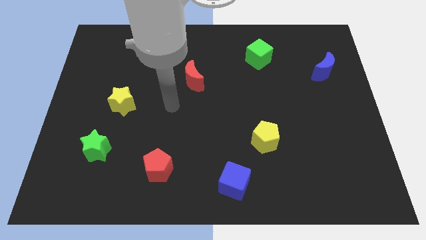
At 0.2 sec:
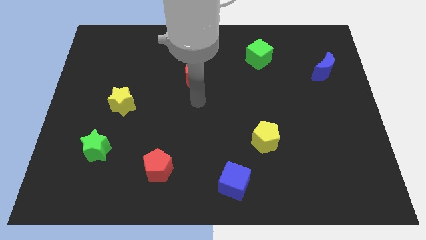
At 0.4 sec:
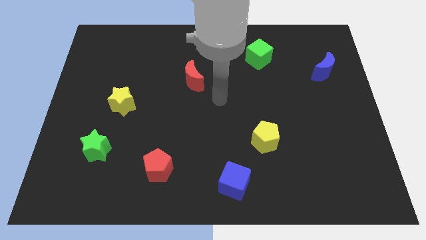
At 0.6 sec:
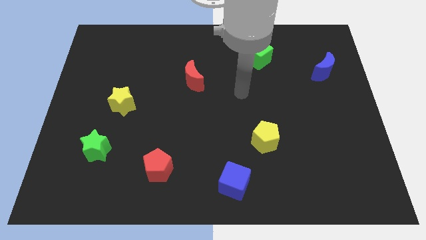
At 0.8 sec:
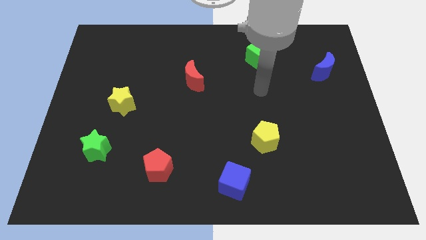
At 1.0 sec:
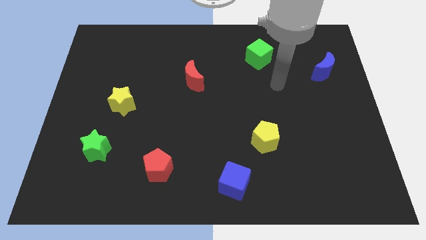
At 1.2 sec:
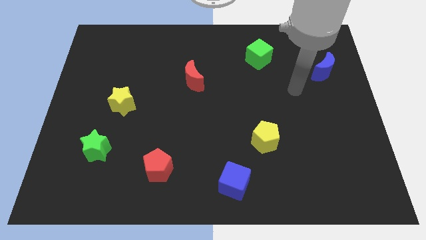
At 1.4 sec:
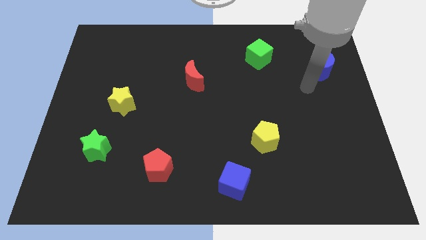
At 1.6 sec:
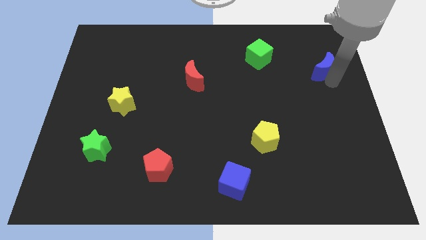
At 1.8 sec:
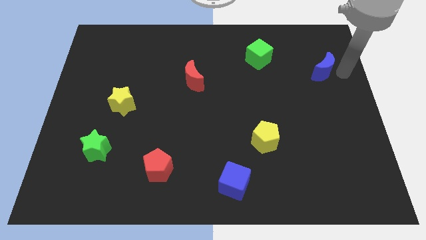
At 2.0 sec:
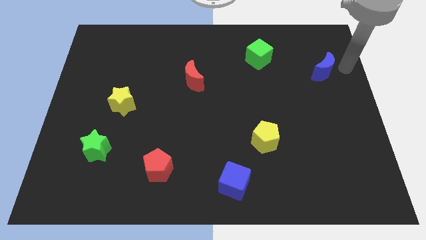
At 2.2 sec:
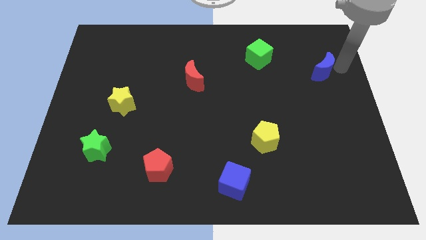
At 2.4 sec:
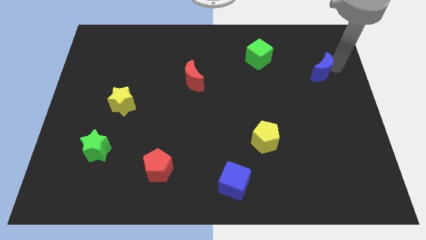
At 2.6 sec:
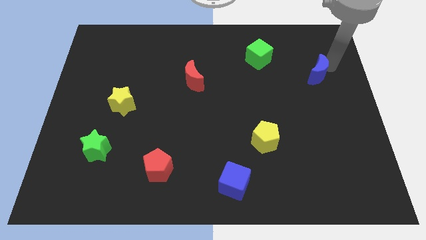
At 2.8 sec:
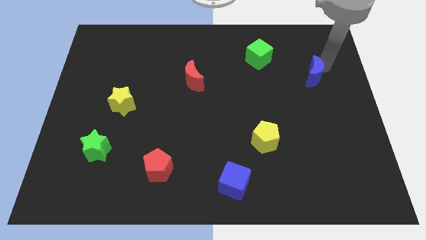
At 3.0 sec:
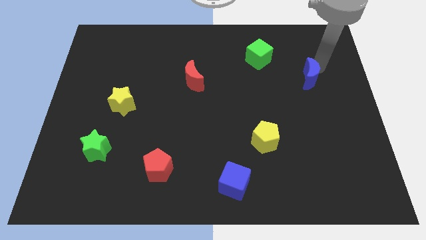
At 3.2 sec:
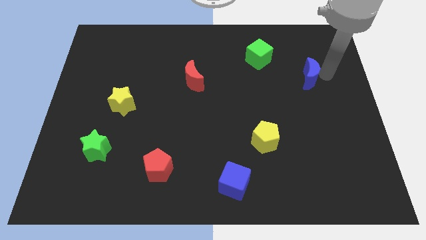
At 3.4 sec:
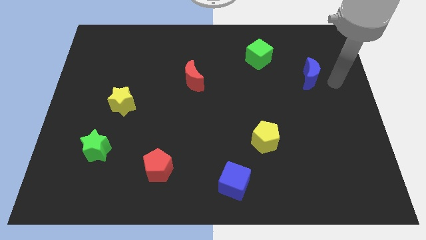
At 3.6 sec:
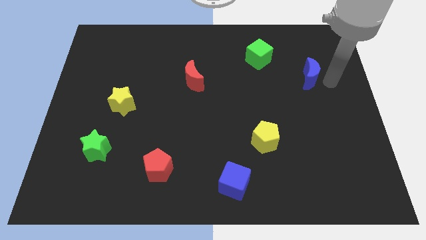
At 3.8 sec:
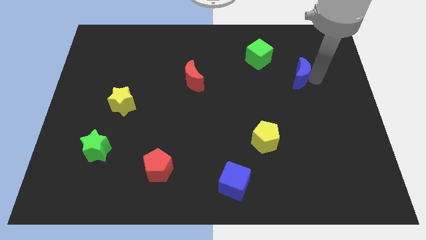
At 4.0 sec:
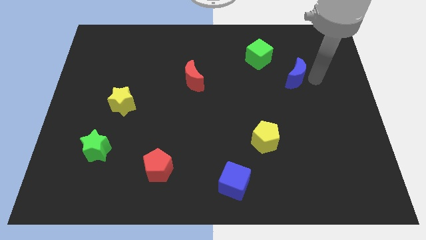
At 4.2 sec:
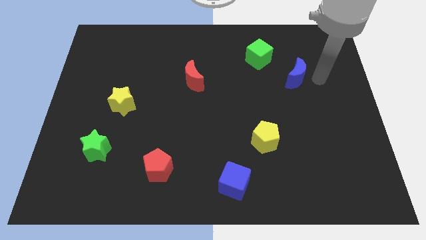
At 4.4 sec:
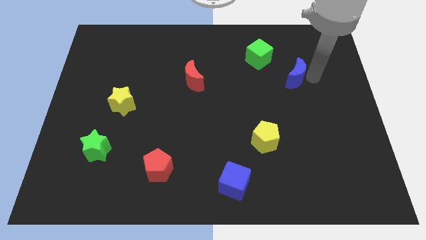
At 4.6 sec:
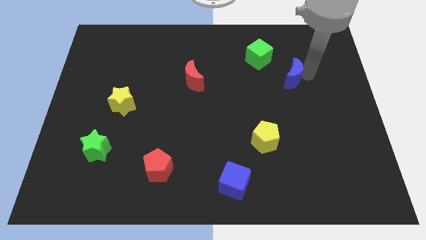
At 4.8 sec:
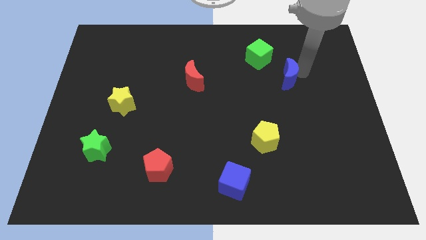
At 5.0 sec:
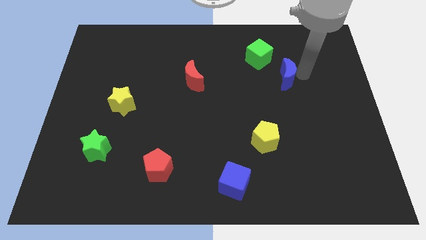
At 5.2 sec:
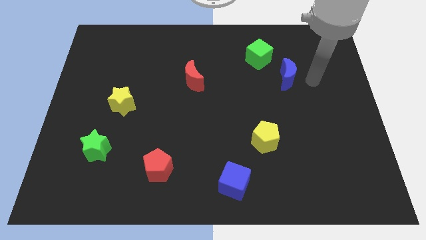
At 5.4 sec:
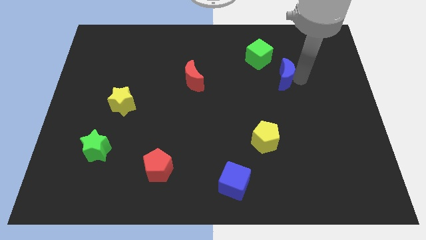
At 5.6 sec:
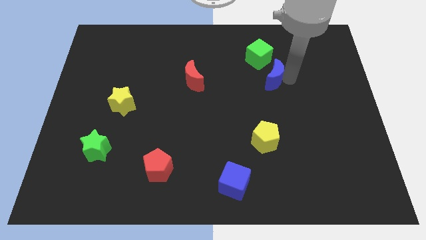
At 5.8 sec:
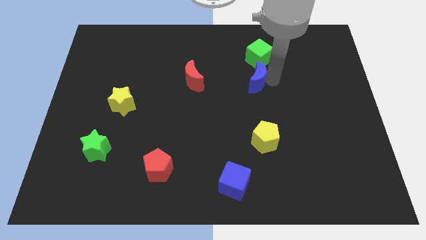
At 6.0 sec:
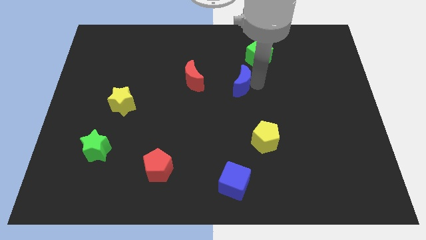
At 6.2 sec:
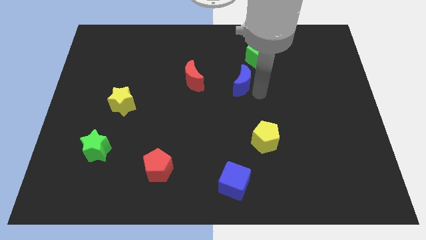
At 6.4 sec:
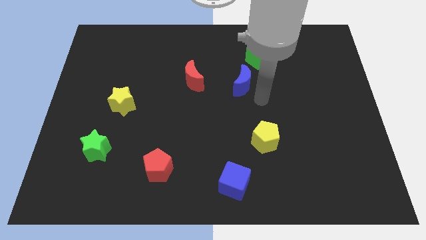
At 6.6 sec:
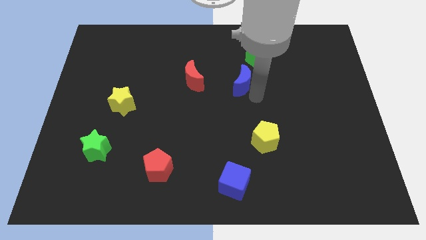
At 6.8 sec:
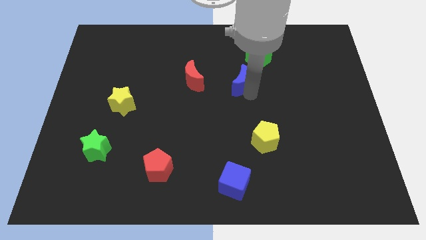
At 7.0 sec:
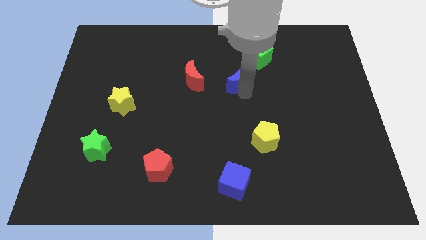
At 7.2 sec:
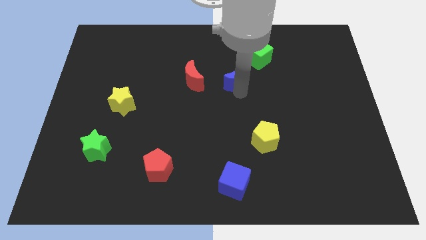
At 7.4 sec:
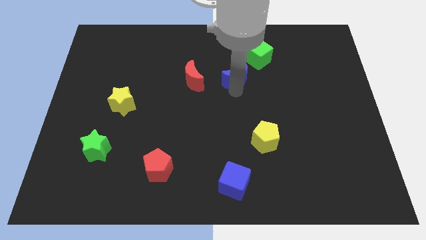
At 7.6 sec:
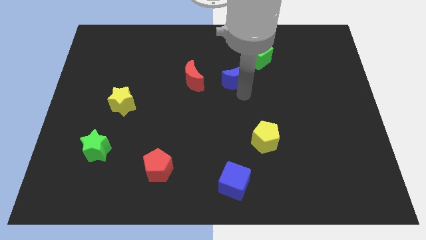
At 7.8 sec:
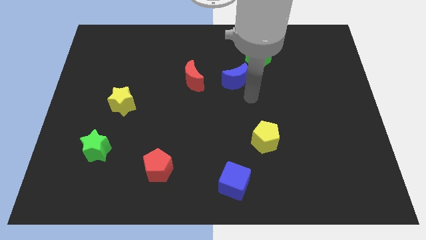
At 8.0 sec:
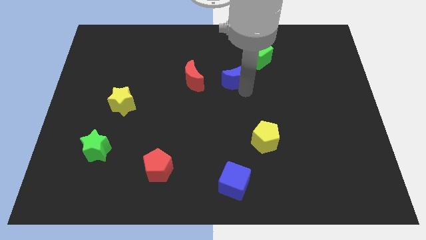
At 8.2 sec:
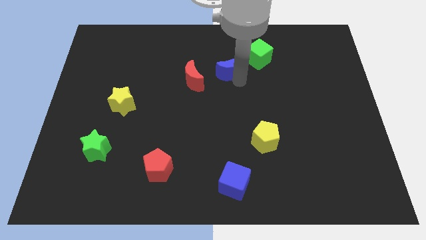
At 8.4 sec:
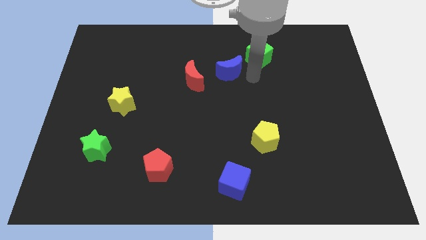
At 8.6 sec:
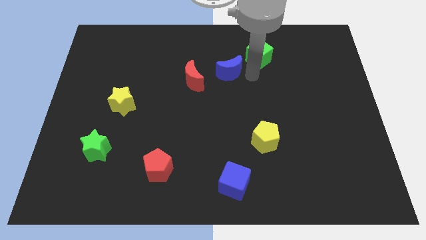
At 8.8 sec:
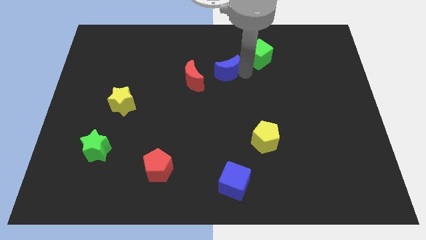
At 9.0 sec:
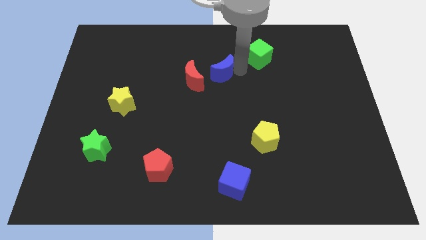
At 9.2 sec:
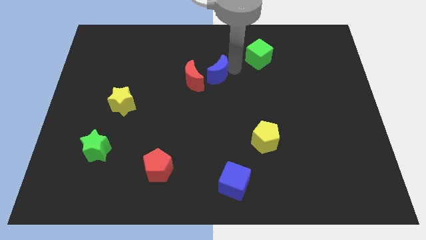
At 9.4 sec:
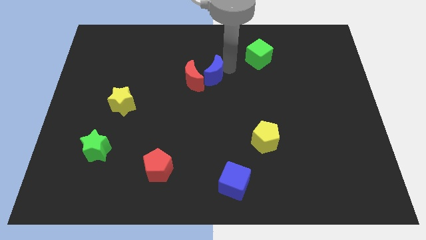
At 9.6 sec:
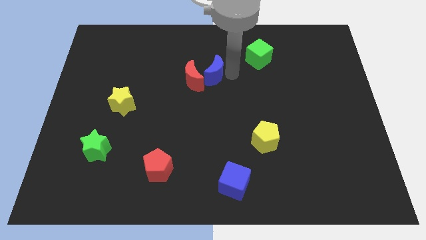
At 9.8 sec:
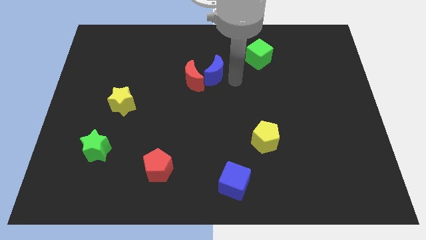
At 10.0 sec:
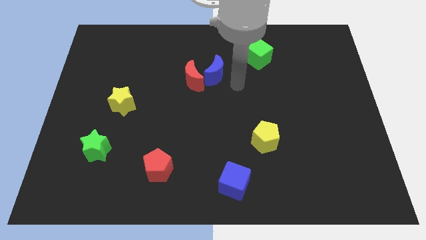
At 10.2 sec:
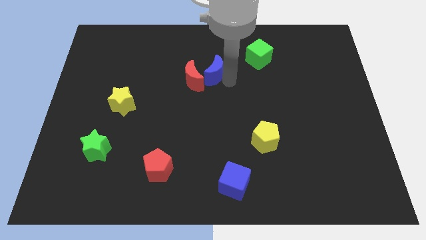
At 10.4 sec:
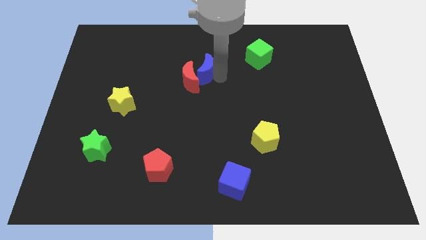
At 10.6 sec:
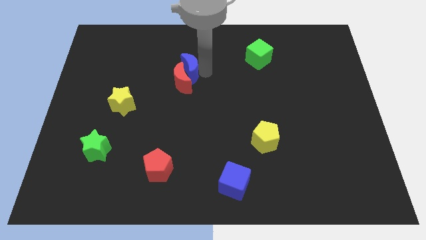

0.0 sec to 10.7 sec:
put the blue moon to the top left side of the red moon

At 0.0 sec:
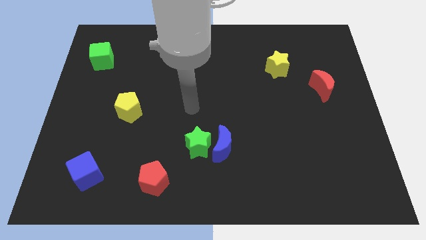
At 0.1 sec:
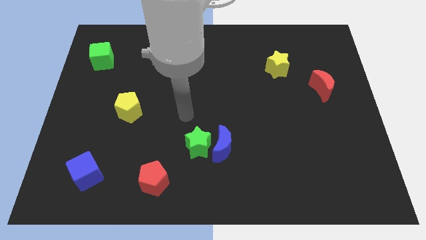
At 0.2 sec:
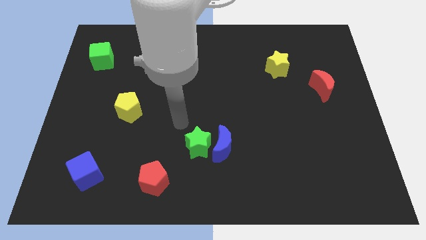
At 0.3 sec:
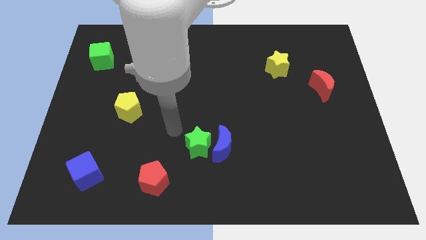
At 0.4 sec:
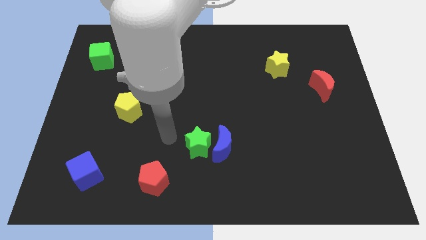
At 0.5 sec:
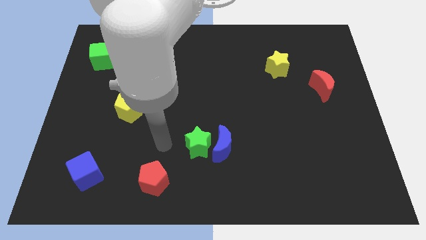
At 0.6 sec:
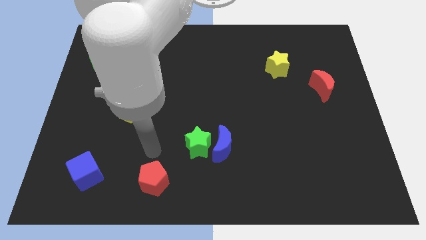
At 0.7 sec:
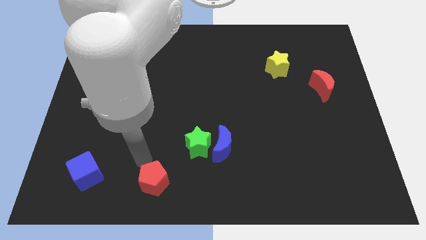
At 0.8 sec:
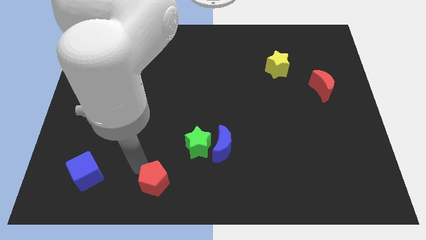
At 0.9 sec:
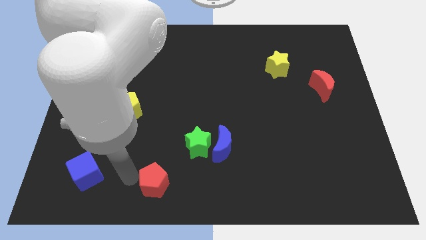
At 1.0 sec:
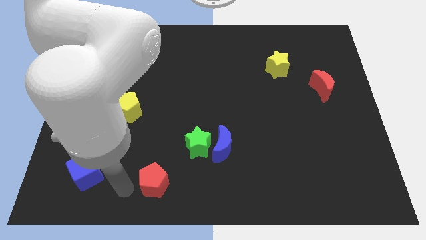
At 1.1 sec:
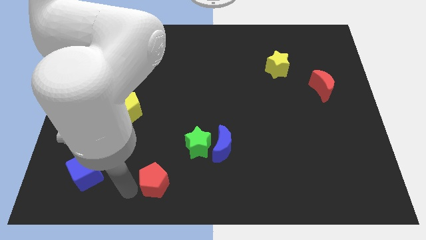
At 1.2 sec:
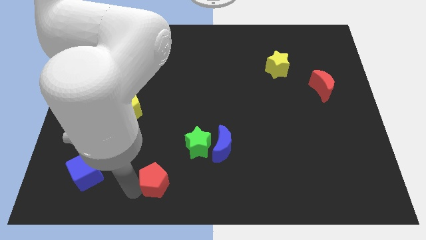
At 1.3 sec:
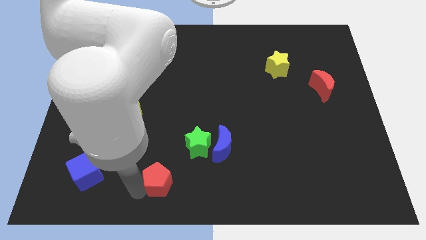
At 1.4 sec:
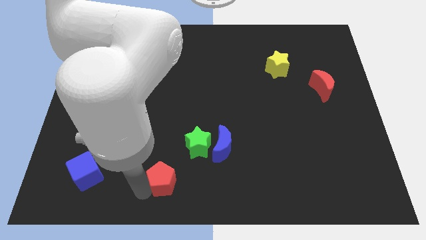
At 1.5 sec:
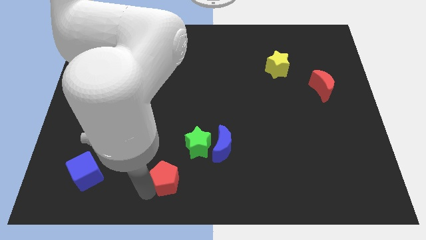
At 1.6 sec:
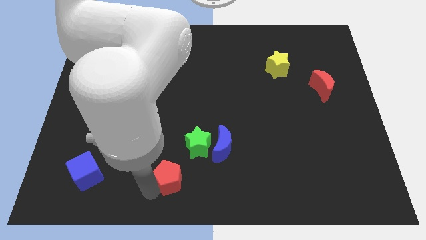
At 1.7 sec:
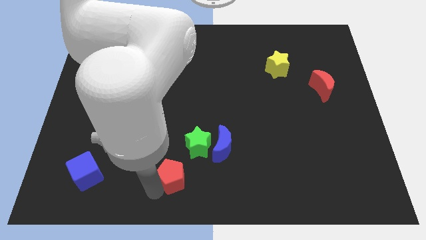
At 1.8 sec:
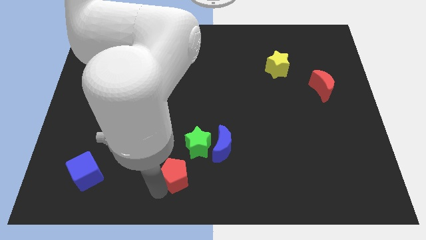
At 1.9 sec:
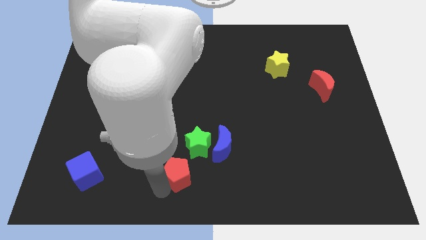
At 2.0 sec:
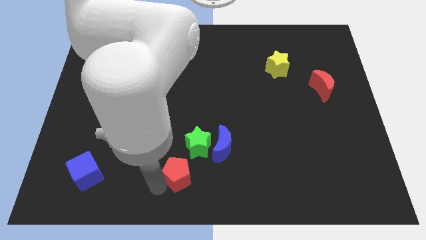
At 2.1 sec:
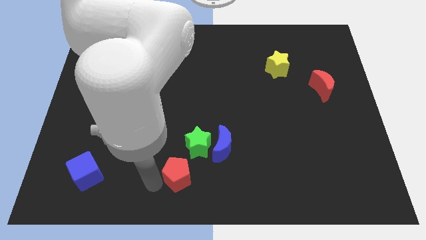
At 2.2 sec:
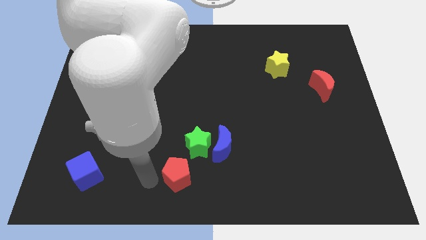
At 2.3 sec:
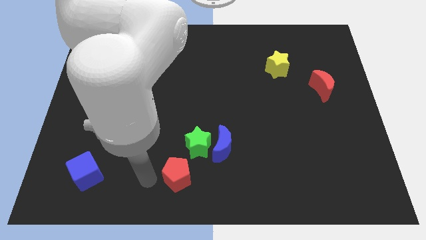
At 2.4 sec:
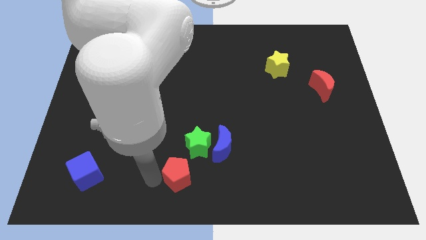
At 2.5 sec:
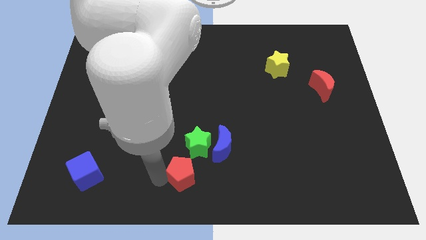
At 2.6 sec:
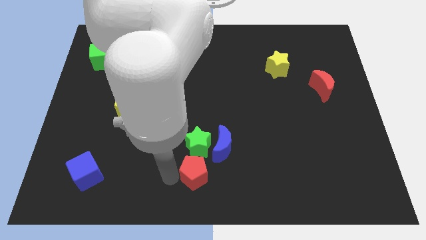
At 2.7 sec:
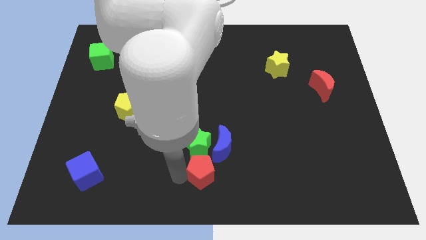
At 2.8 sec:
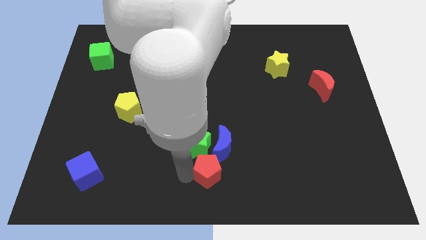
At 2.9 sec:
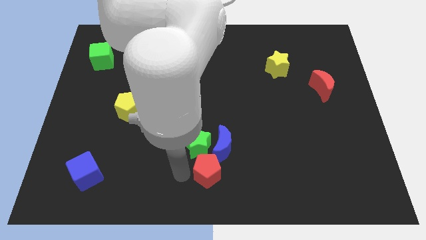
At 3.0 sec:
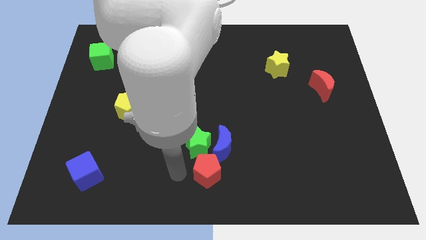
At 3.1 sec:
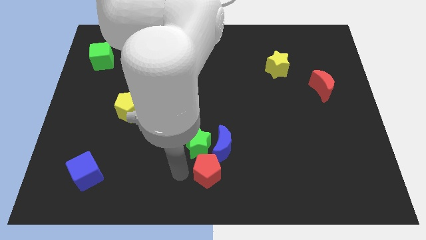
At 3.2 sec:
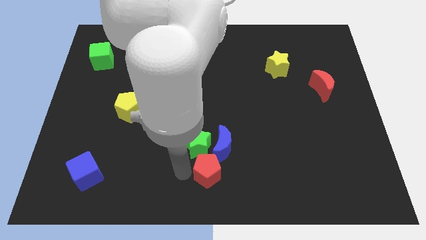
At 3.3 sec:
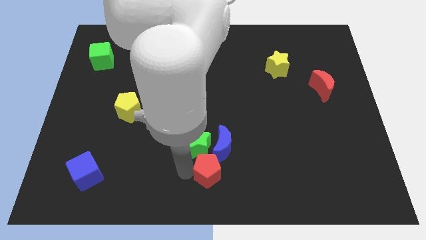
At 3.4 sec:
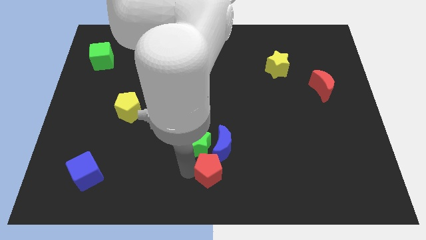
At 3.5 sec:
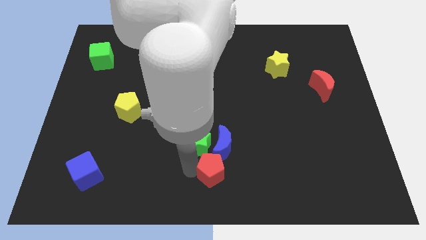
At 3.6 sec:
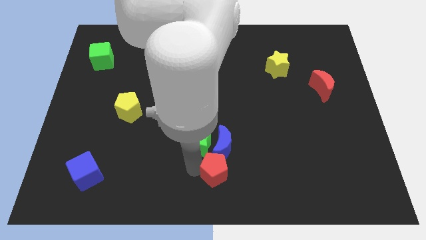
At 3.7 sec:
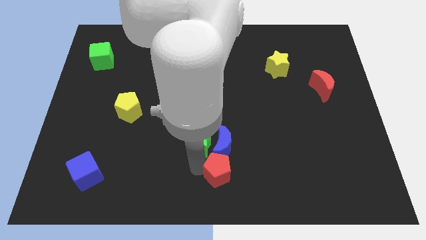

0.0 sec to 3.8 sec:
put the red pentagon to the bottom right side of the blue moon
